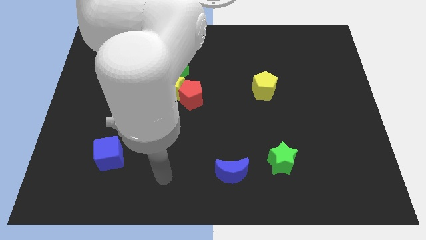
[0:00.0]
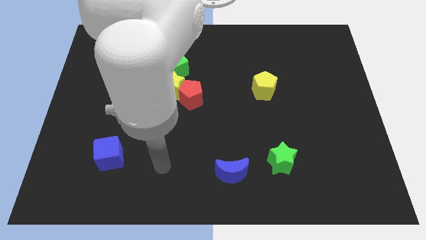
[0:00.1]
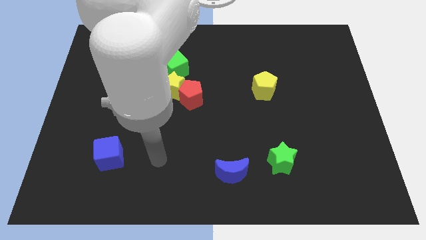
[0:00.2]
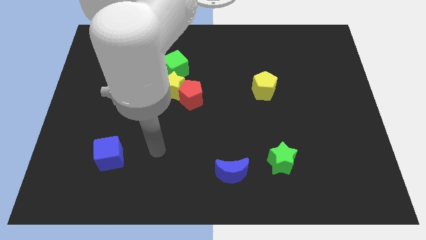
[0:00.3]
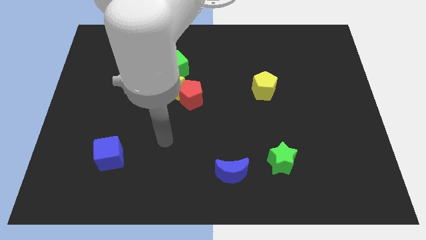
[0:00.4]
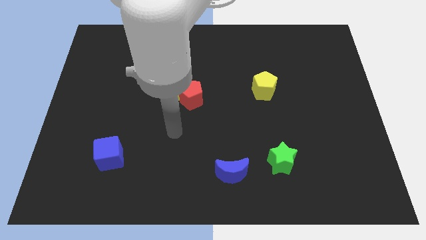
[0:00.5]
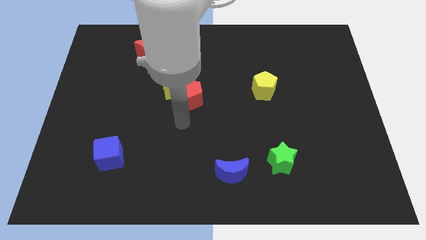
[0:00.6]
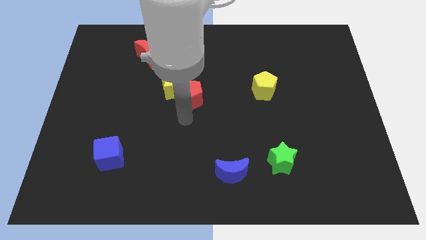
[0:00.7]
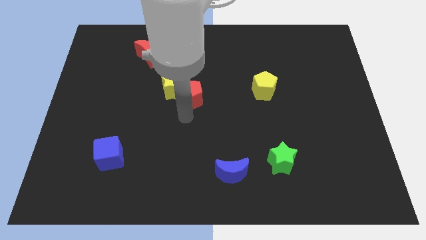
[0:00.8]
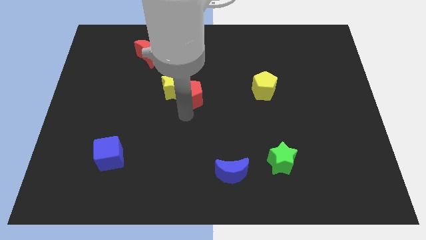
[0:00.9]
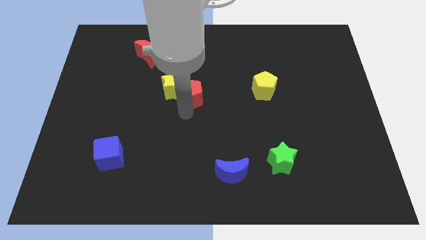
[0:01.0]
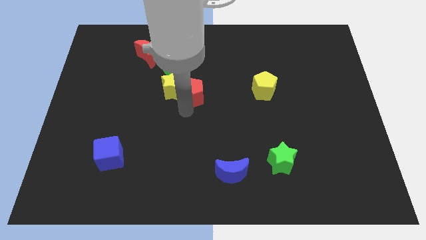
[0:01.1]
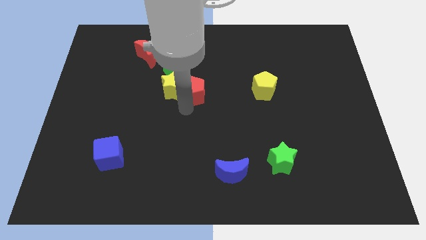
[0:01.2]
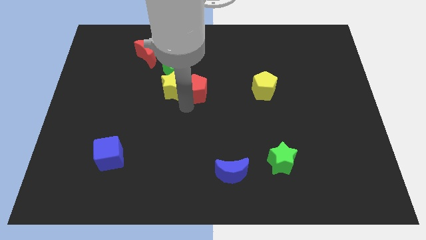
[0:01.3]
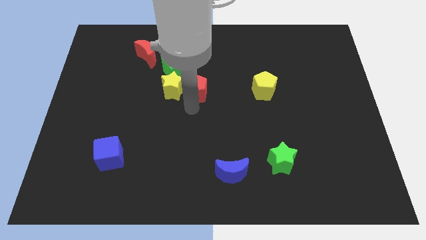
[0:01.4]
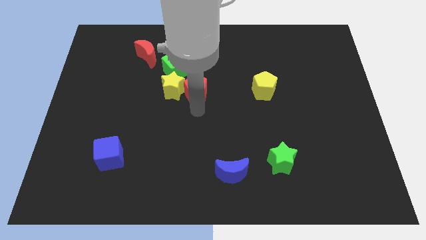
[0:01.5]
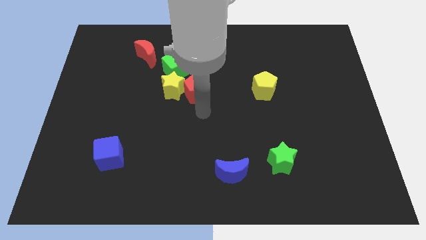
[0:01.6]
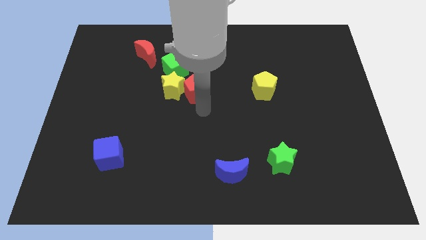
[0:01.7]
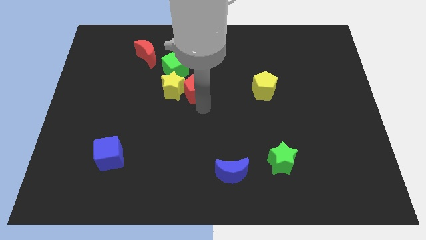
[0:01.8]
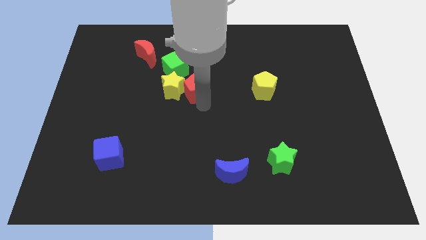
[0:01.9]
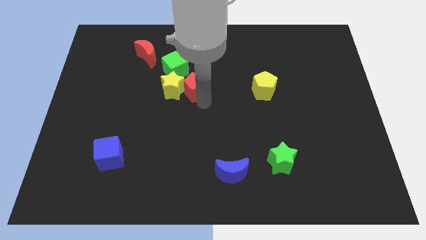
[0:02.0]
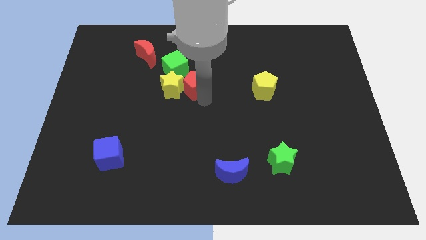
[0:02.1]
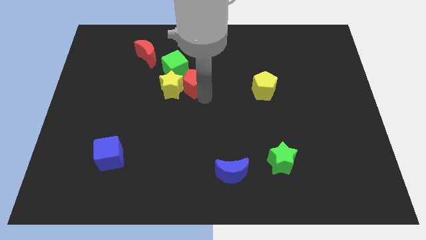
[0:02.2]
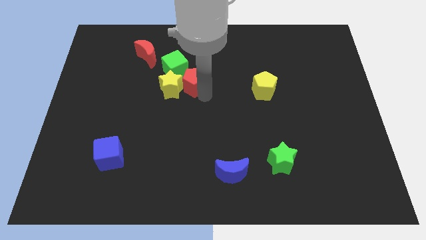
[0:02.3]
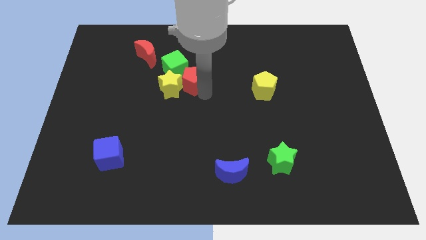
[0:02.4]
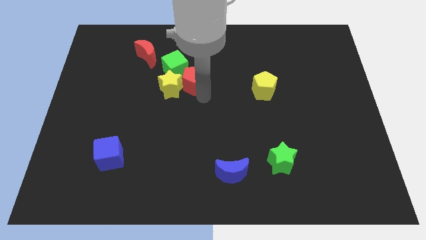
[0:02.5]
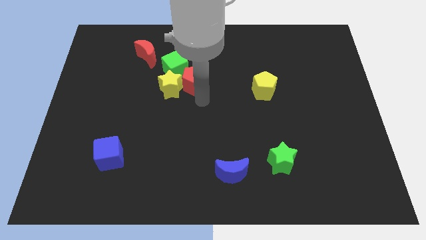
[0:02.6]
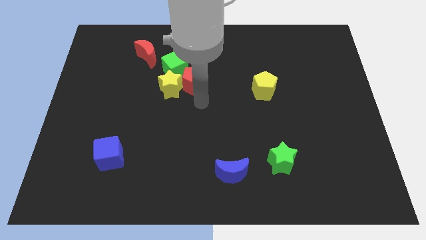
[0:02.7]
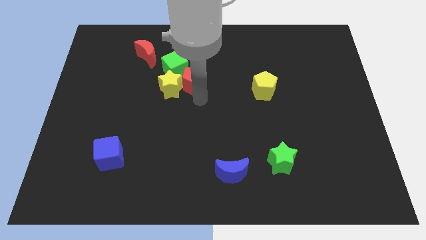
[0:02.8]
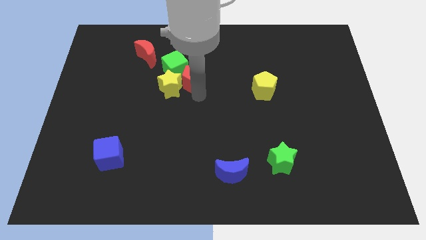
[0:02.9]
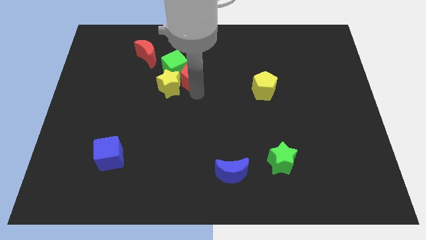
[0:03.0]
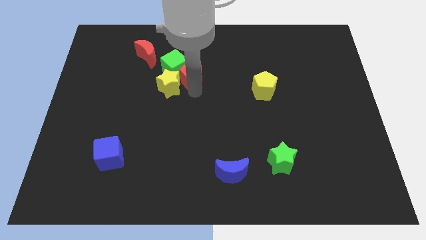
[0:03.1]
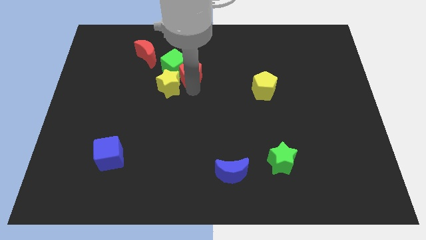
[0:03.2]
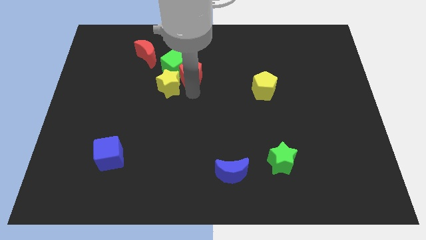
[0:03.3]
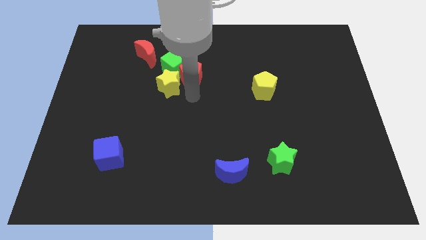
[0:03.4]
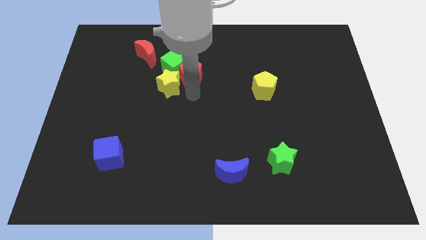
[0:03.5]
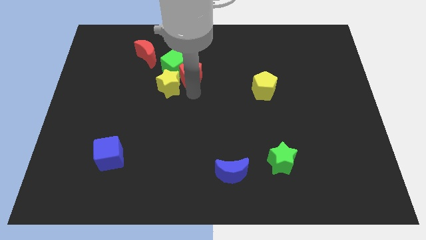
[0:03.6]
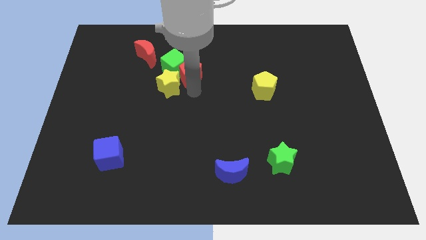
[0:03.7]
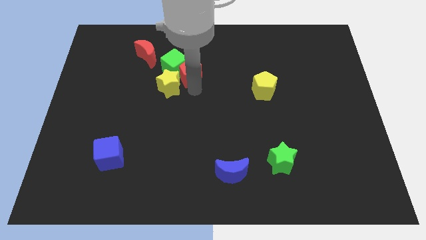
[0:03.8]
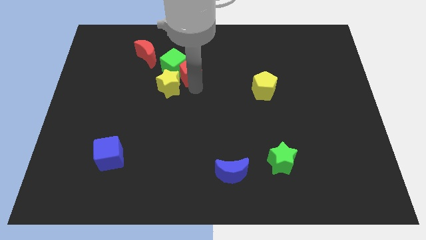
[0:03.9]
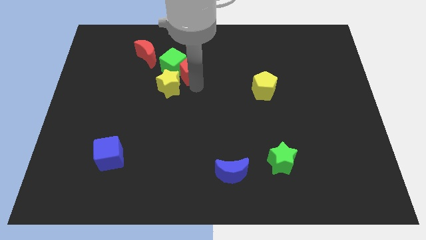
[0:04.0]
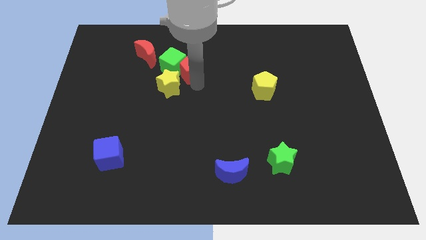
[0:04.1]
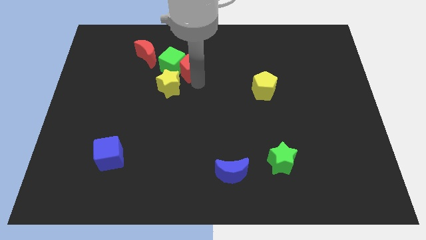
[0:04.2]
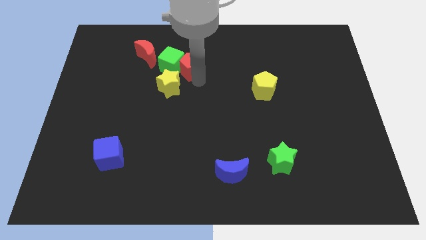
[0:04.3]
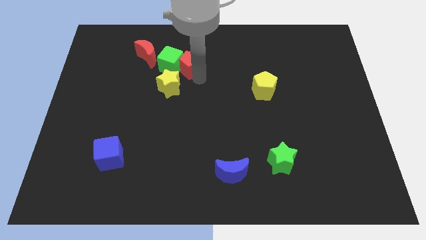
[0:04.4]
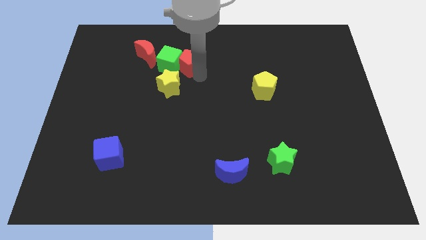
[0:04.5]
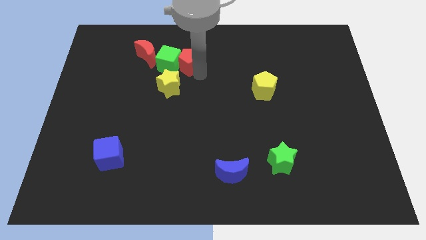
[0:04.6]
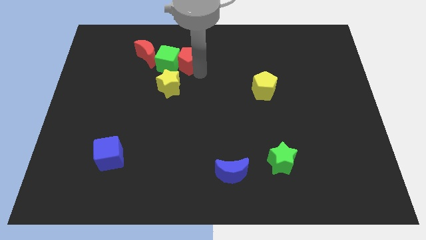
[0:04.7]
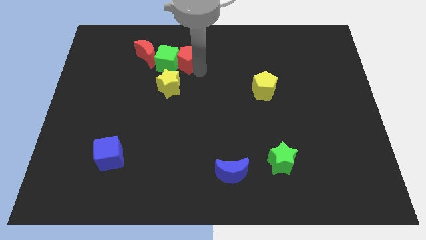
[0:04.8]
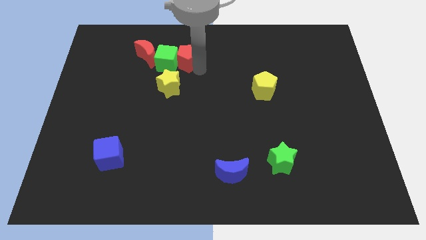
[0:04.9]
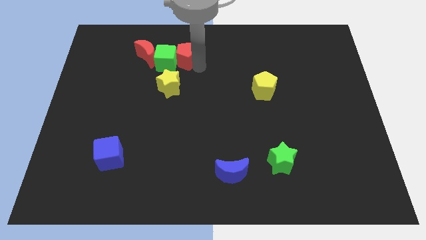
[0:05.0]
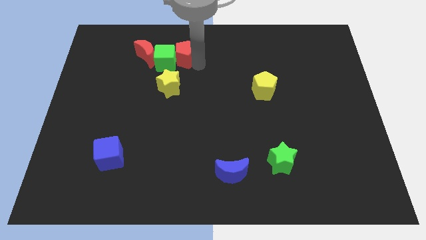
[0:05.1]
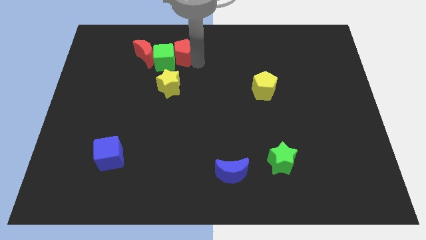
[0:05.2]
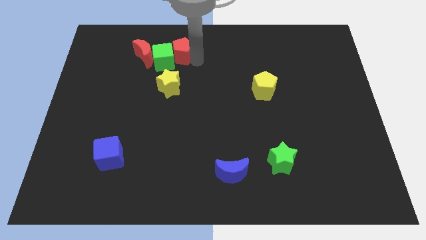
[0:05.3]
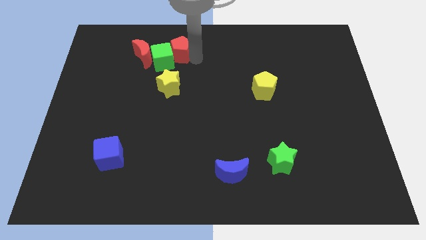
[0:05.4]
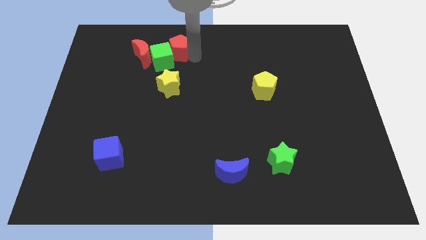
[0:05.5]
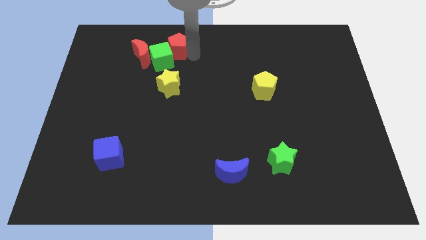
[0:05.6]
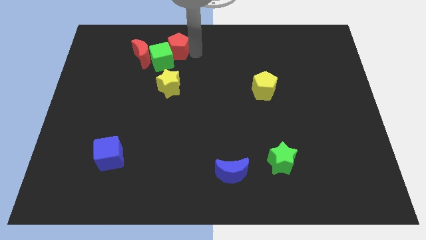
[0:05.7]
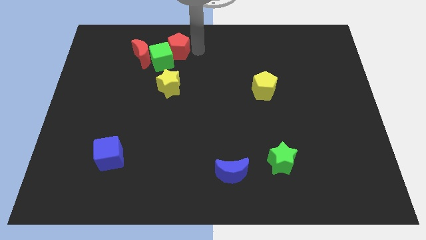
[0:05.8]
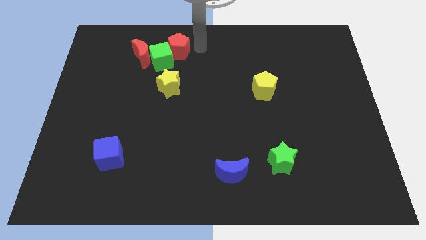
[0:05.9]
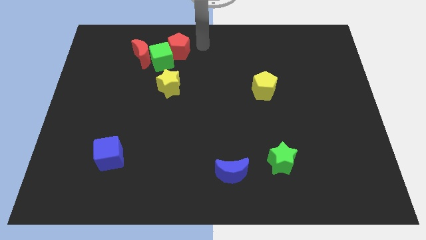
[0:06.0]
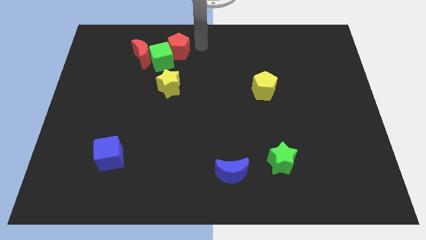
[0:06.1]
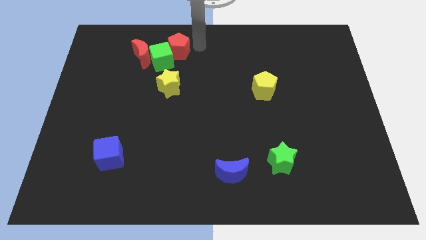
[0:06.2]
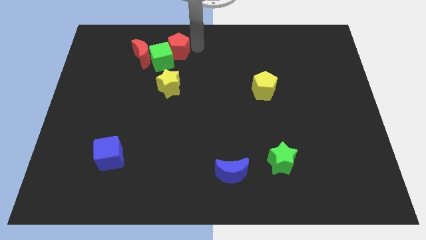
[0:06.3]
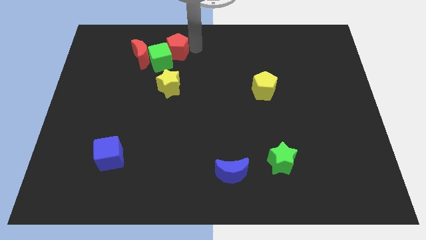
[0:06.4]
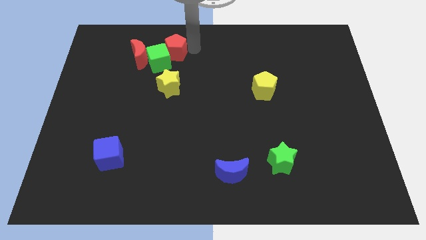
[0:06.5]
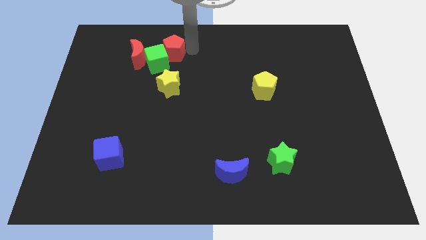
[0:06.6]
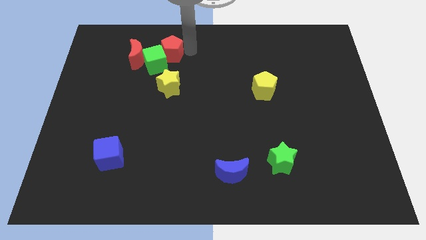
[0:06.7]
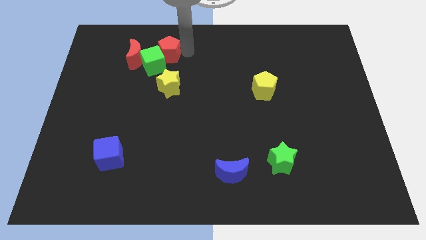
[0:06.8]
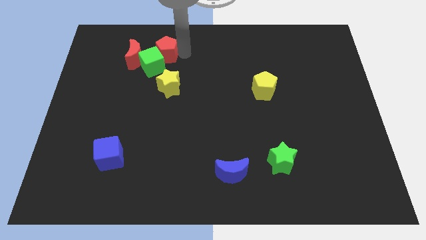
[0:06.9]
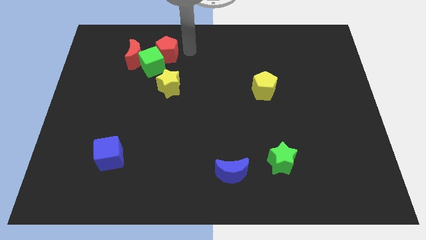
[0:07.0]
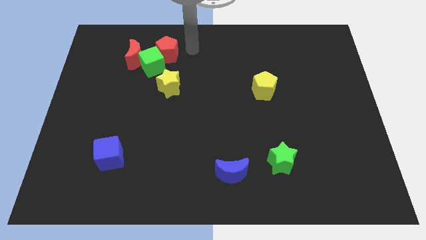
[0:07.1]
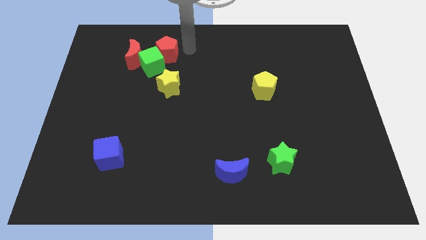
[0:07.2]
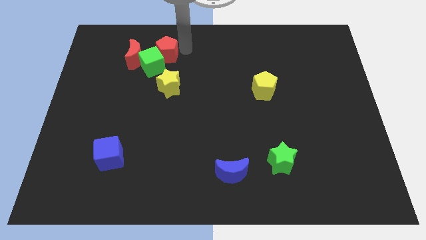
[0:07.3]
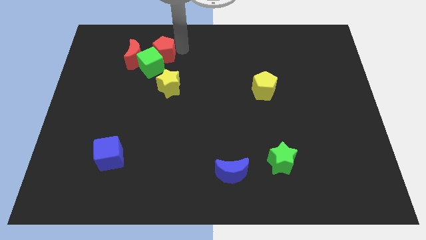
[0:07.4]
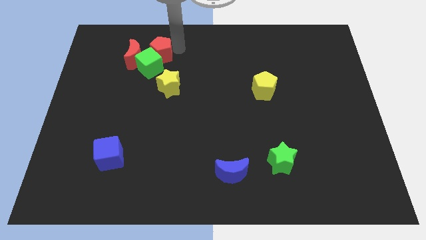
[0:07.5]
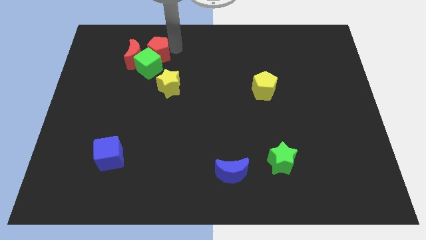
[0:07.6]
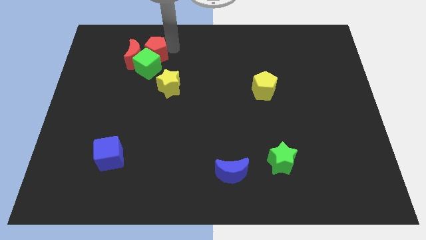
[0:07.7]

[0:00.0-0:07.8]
put the red pentagon close to the red moon
